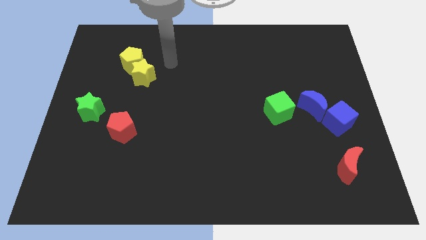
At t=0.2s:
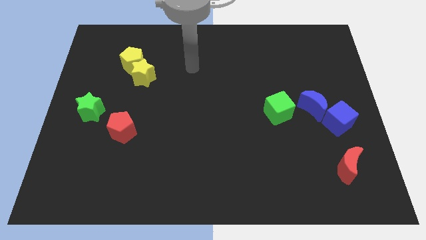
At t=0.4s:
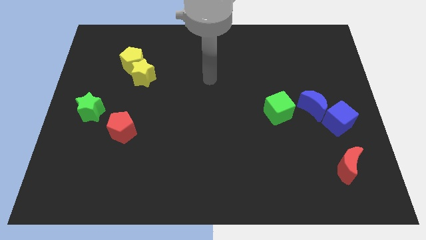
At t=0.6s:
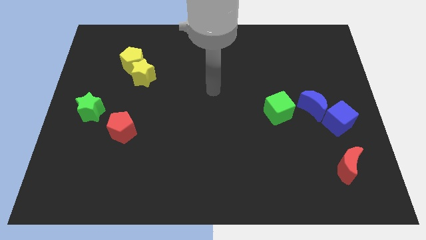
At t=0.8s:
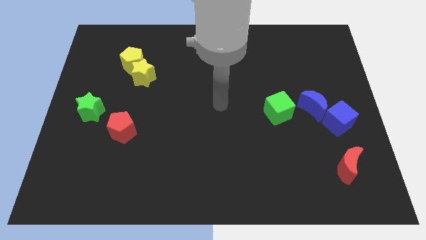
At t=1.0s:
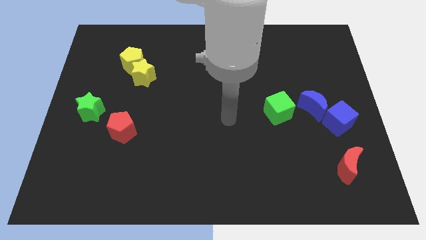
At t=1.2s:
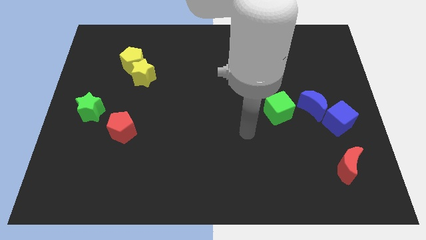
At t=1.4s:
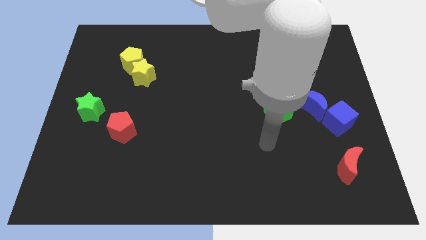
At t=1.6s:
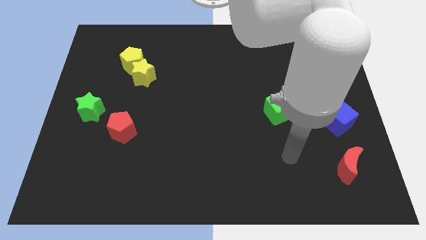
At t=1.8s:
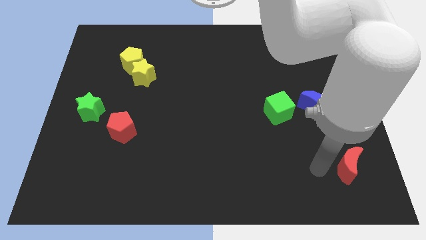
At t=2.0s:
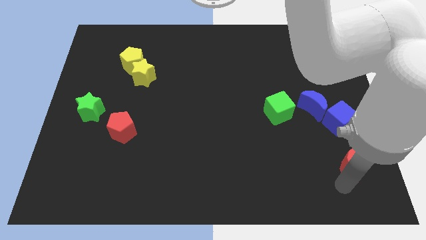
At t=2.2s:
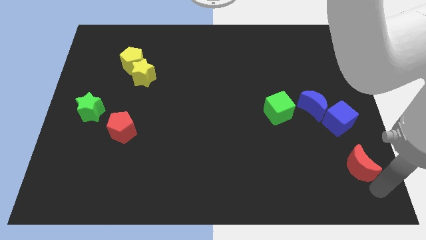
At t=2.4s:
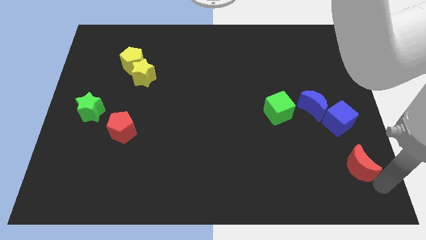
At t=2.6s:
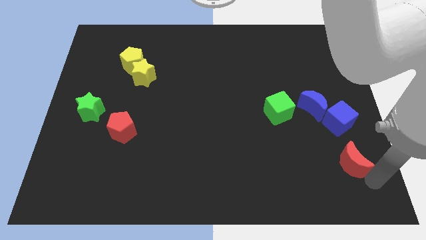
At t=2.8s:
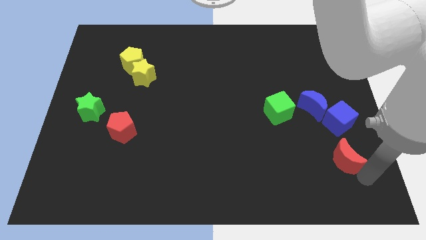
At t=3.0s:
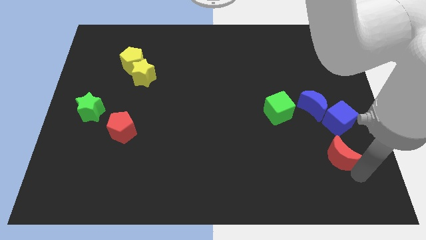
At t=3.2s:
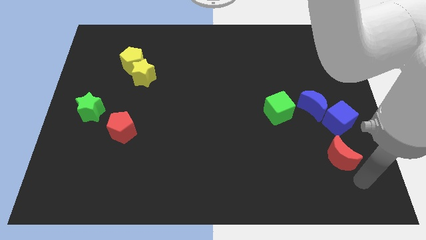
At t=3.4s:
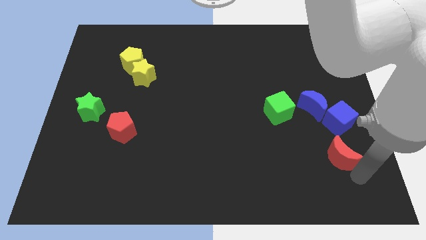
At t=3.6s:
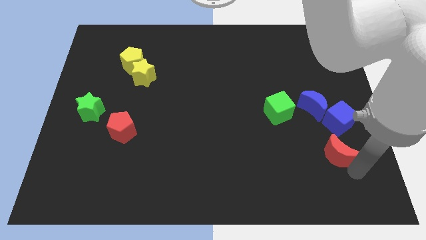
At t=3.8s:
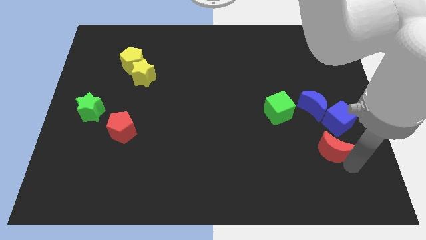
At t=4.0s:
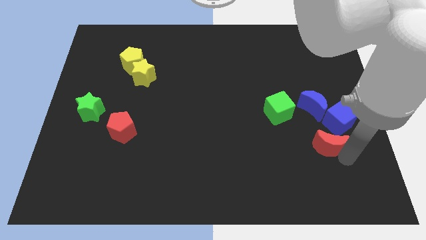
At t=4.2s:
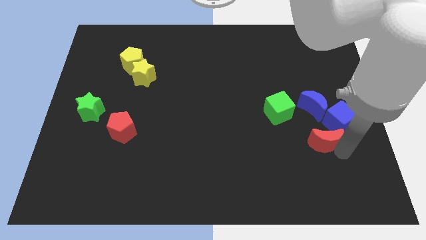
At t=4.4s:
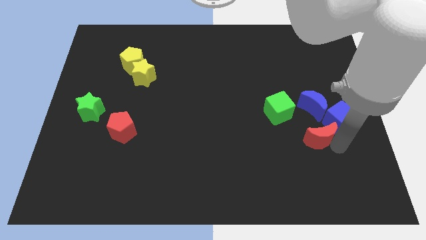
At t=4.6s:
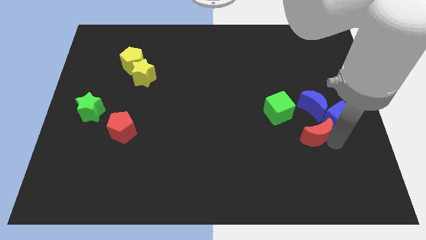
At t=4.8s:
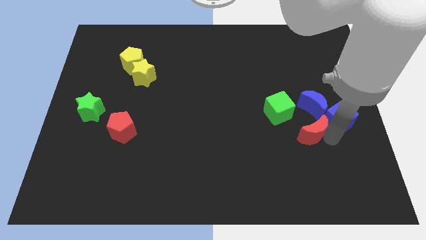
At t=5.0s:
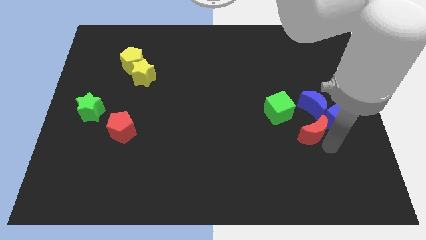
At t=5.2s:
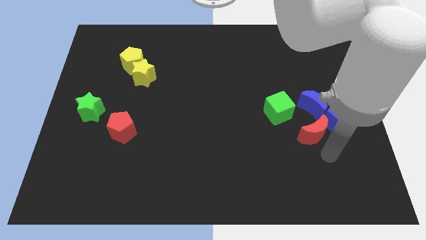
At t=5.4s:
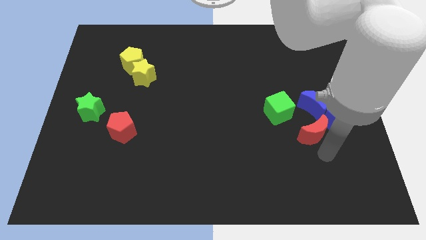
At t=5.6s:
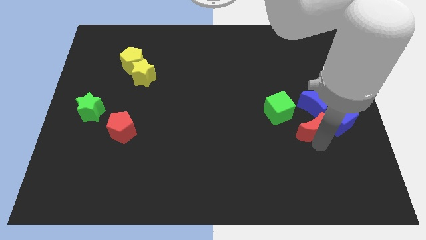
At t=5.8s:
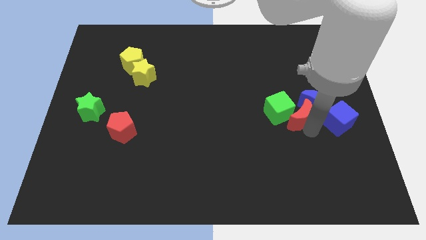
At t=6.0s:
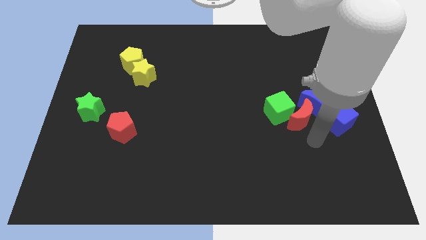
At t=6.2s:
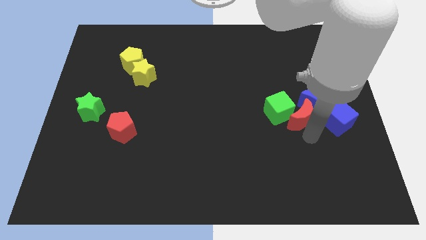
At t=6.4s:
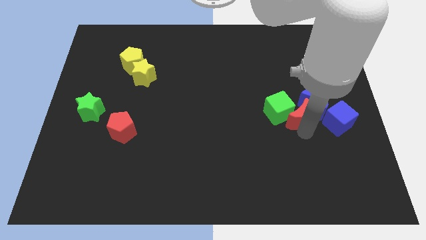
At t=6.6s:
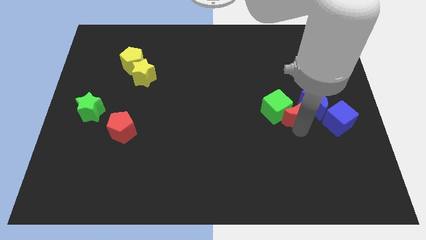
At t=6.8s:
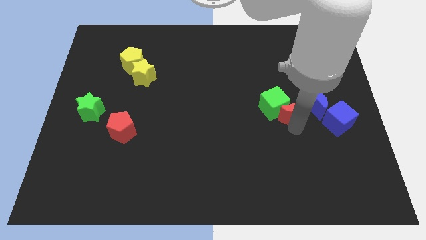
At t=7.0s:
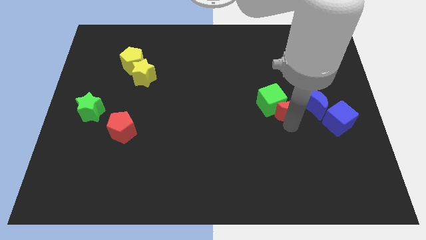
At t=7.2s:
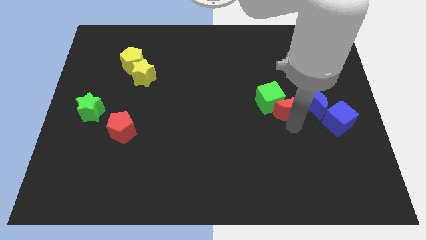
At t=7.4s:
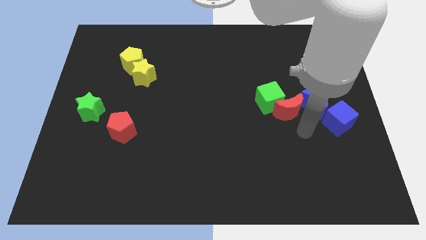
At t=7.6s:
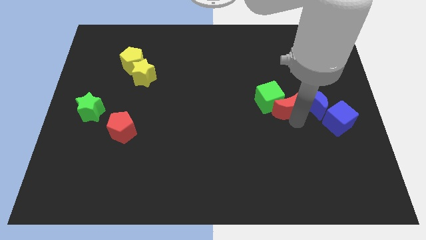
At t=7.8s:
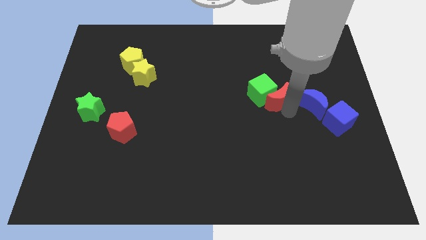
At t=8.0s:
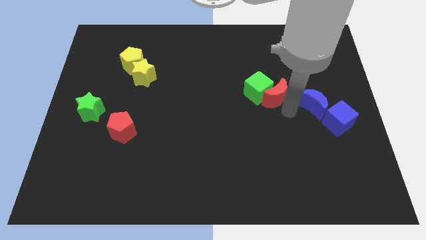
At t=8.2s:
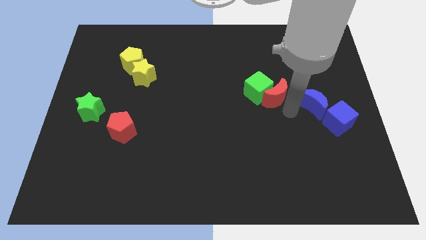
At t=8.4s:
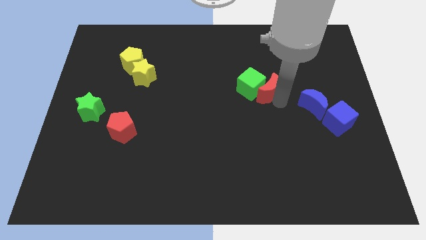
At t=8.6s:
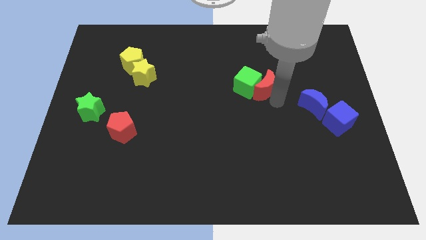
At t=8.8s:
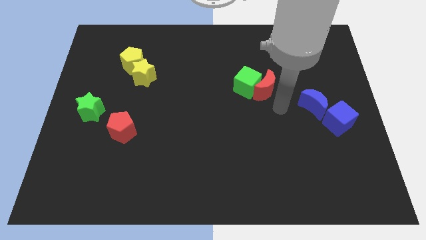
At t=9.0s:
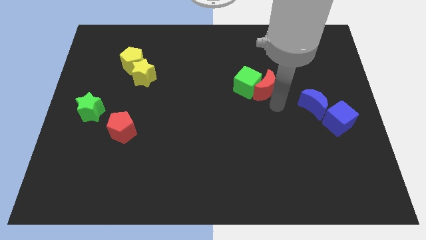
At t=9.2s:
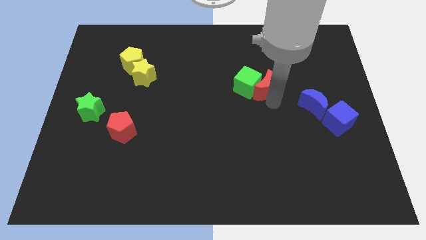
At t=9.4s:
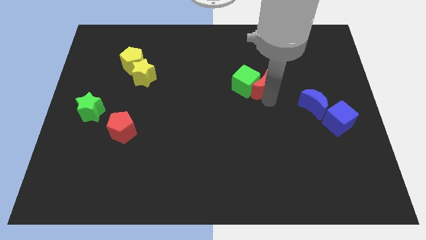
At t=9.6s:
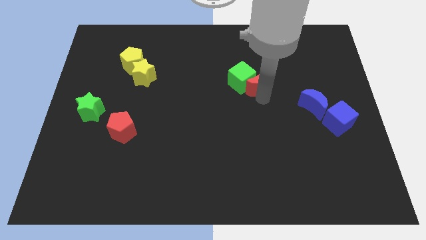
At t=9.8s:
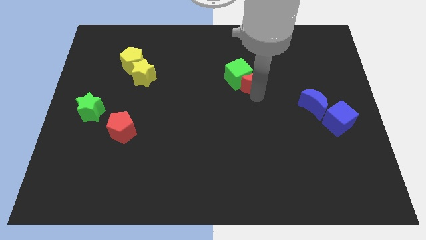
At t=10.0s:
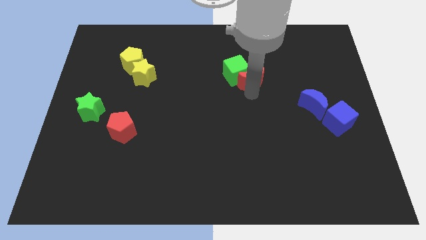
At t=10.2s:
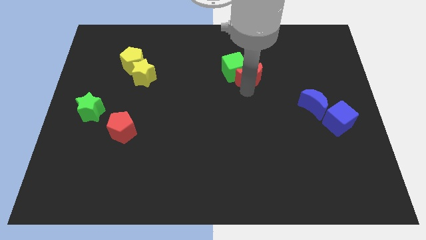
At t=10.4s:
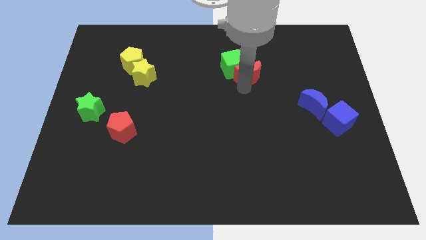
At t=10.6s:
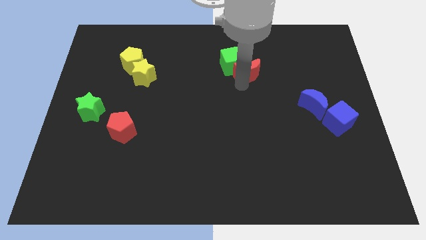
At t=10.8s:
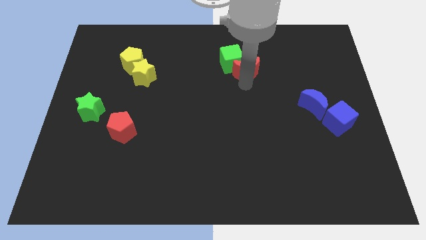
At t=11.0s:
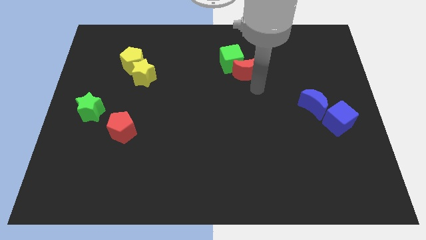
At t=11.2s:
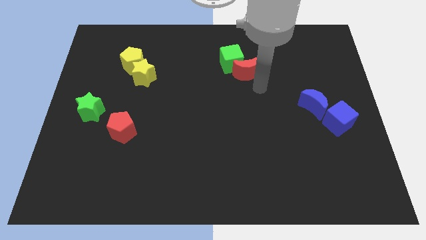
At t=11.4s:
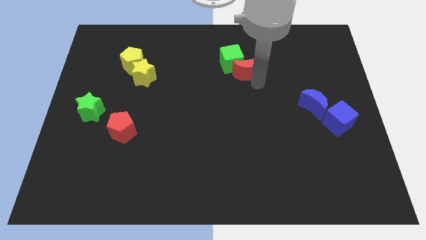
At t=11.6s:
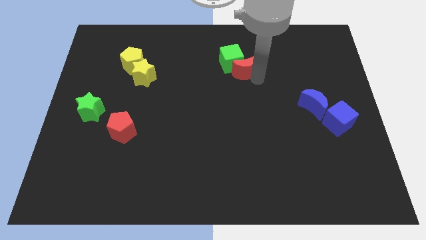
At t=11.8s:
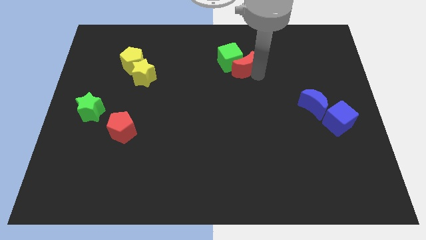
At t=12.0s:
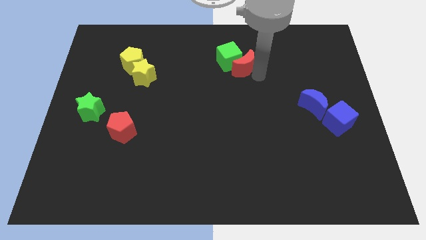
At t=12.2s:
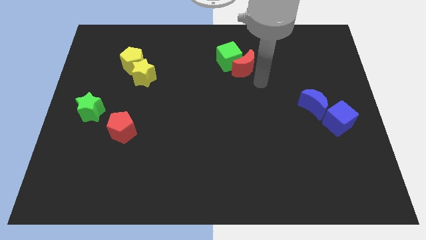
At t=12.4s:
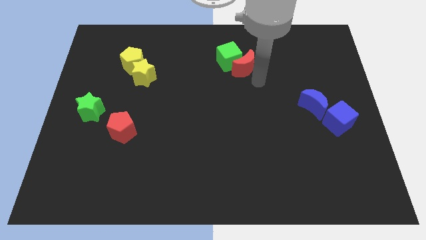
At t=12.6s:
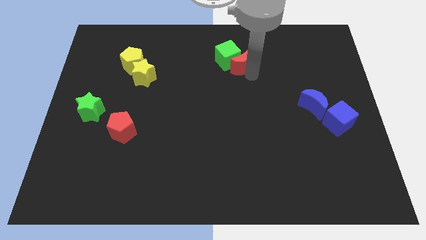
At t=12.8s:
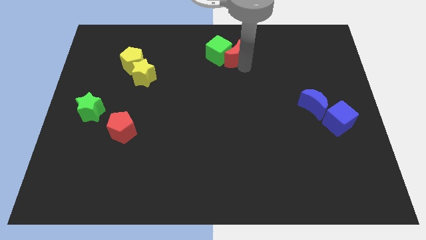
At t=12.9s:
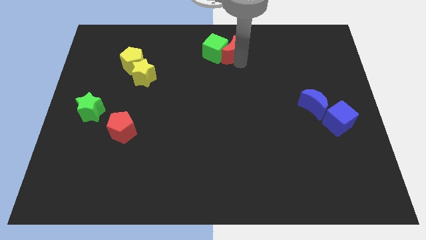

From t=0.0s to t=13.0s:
slide the red moon to the top side

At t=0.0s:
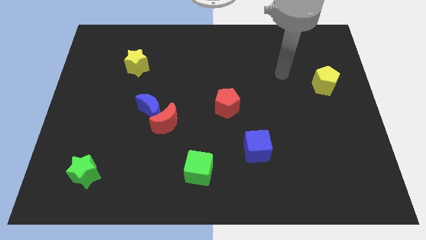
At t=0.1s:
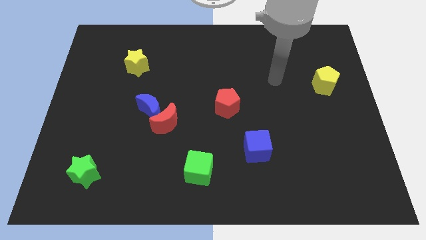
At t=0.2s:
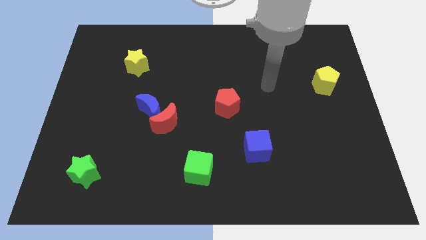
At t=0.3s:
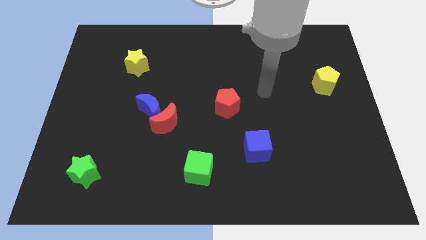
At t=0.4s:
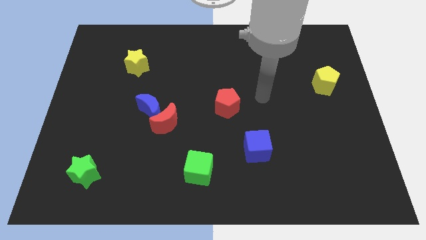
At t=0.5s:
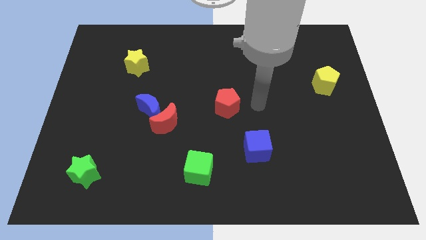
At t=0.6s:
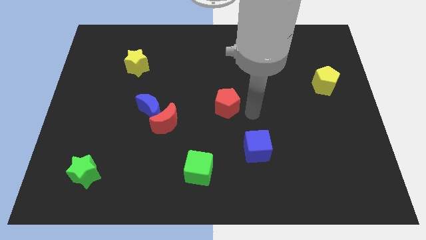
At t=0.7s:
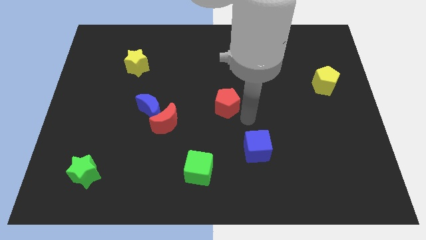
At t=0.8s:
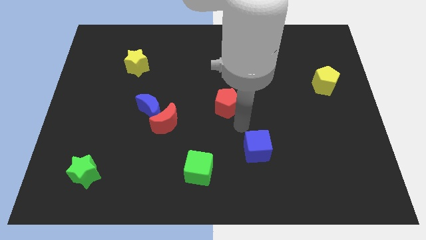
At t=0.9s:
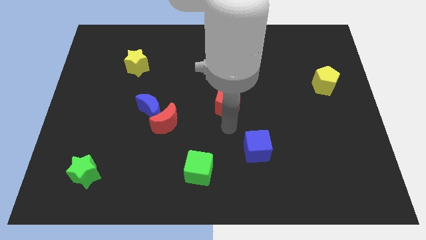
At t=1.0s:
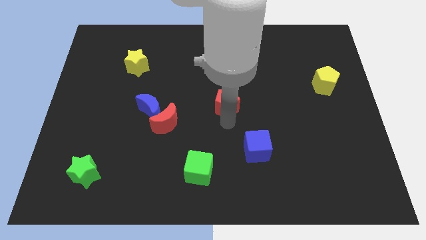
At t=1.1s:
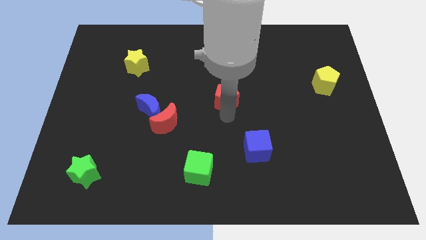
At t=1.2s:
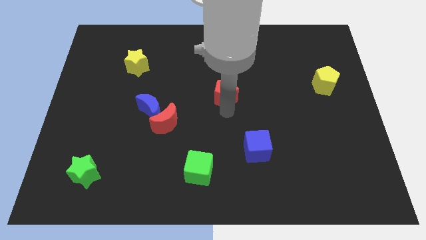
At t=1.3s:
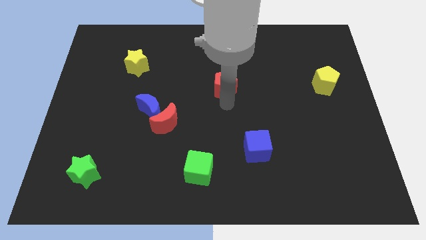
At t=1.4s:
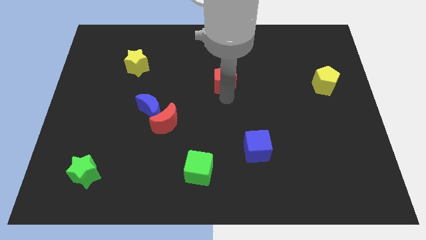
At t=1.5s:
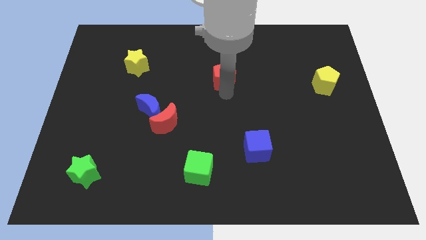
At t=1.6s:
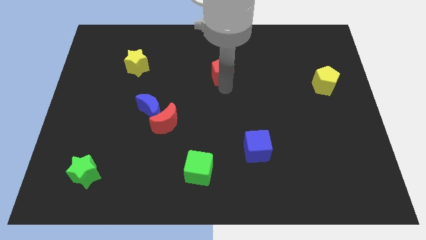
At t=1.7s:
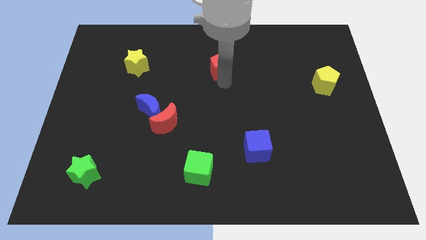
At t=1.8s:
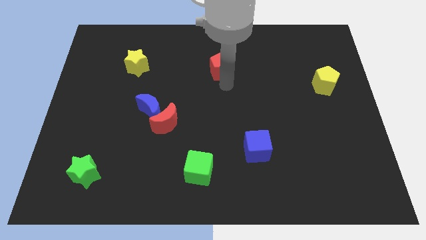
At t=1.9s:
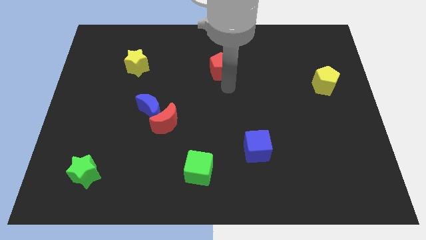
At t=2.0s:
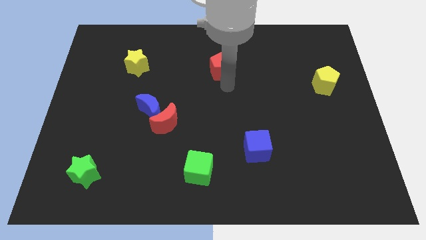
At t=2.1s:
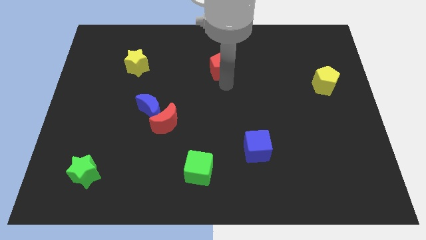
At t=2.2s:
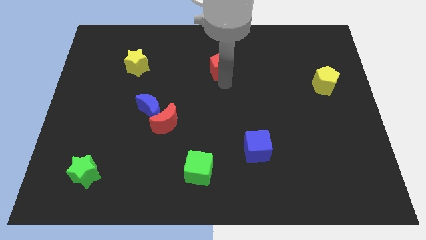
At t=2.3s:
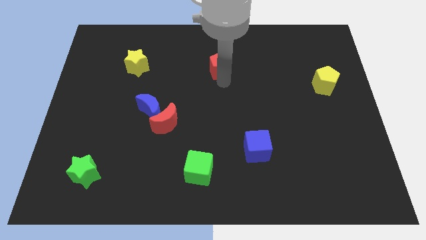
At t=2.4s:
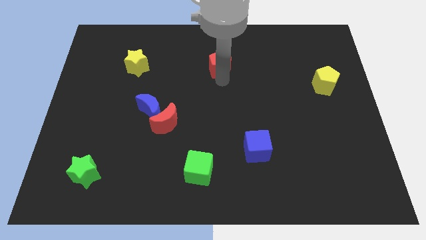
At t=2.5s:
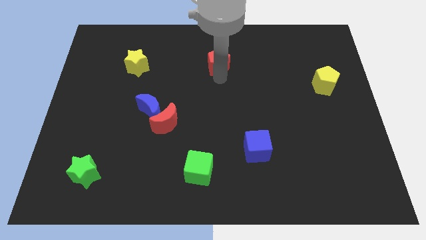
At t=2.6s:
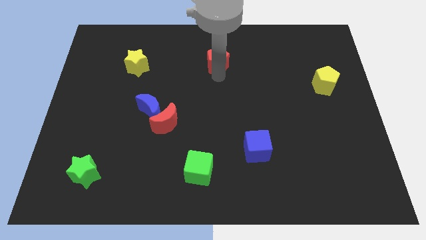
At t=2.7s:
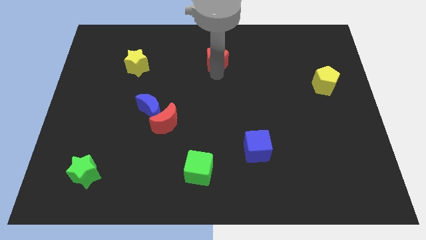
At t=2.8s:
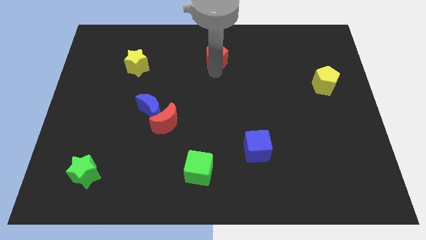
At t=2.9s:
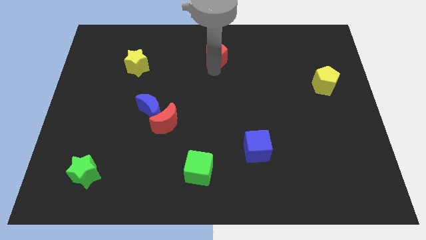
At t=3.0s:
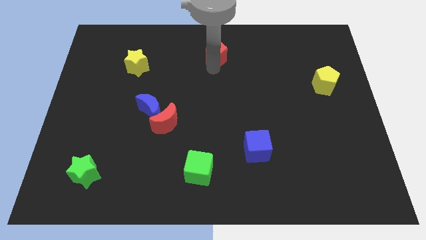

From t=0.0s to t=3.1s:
slide the red pentagon to the top side
